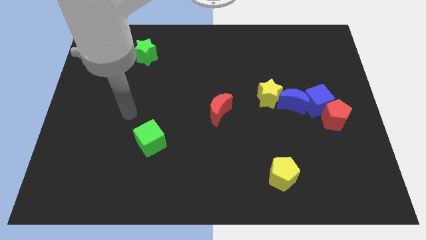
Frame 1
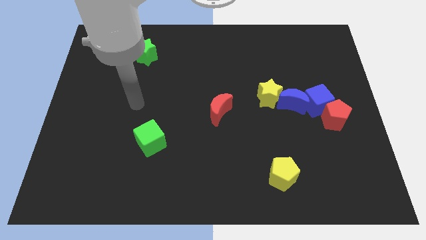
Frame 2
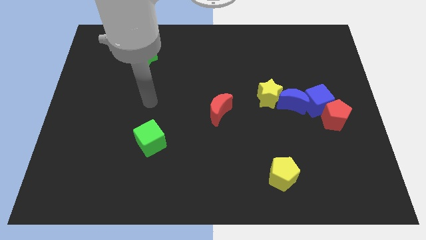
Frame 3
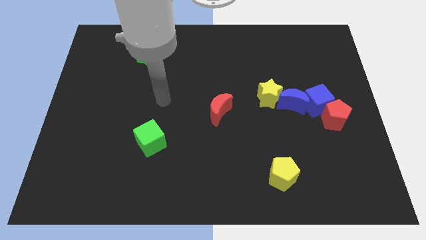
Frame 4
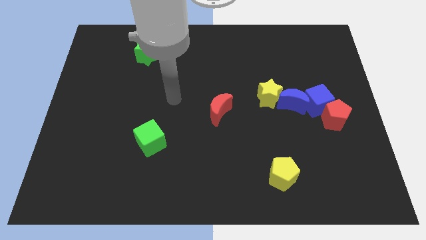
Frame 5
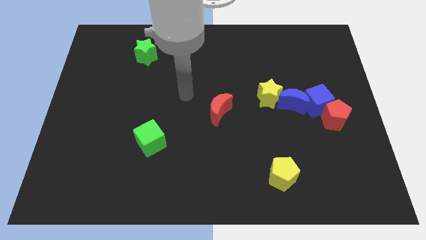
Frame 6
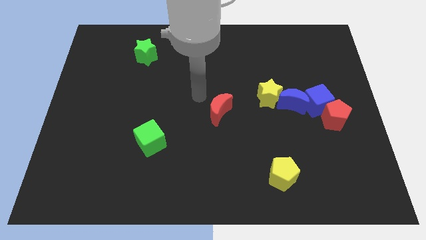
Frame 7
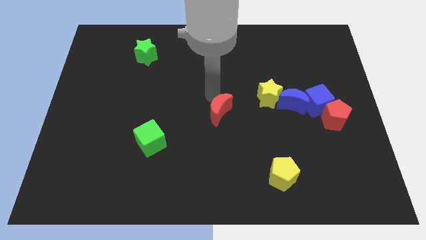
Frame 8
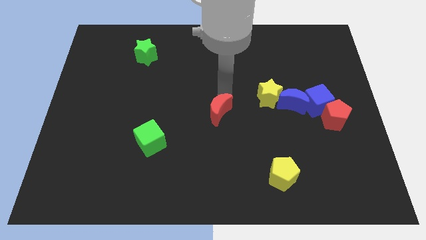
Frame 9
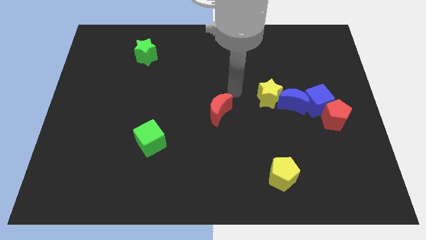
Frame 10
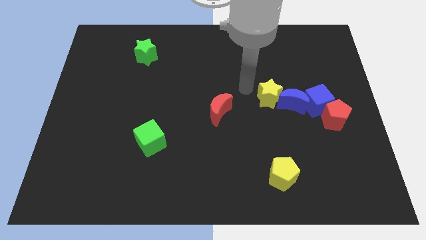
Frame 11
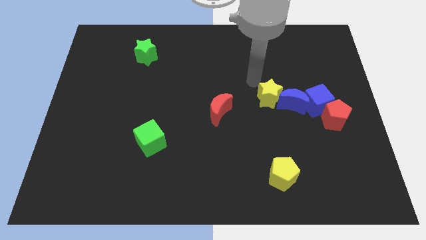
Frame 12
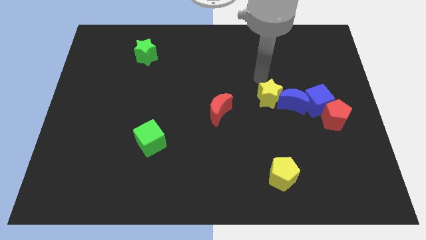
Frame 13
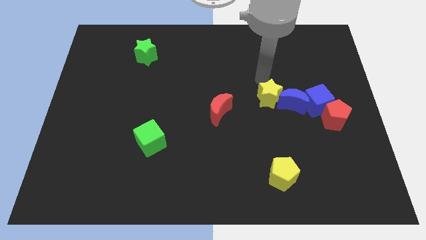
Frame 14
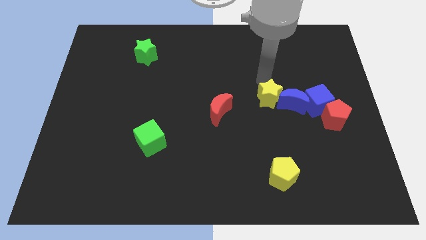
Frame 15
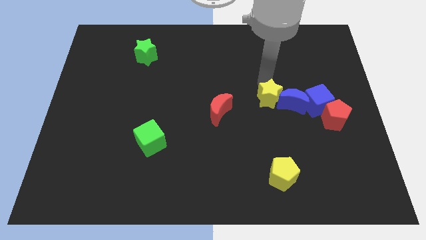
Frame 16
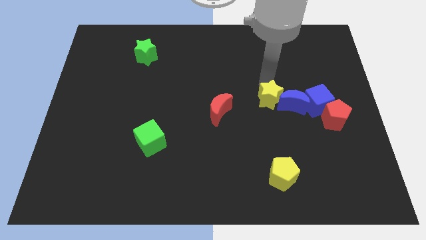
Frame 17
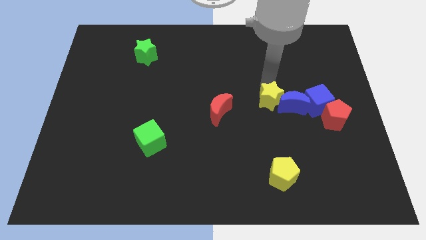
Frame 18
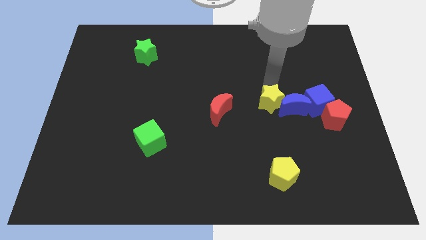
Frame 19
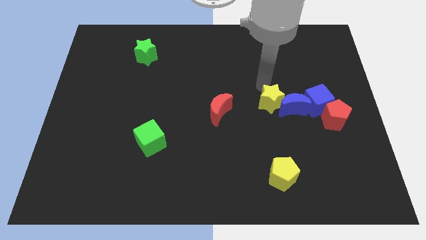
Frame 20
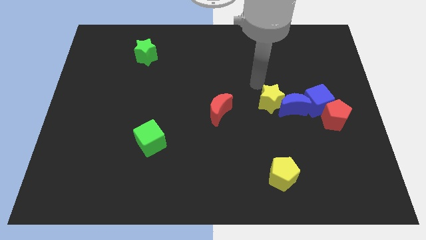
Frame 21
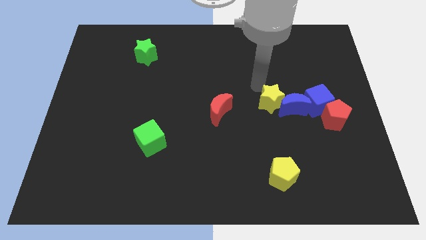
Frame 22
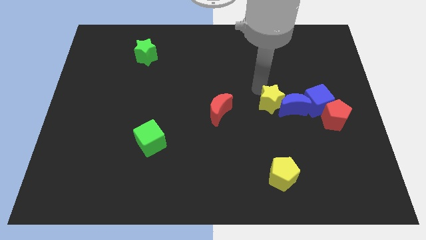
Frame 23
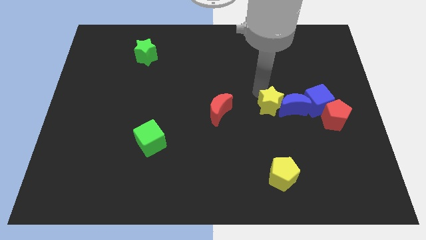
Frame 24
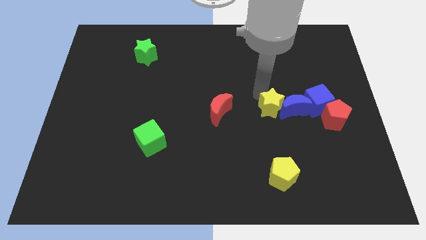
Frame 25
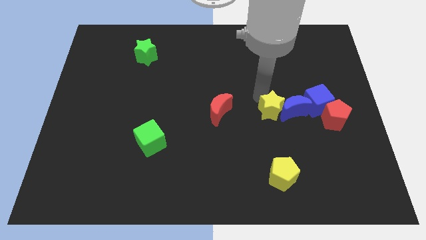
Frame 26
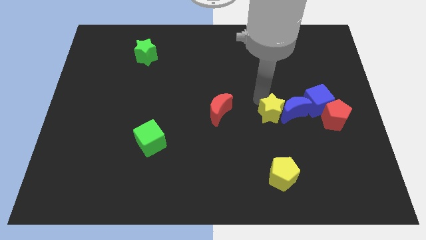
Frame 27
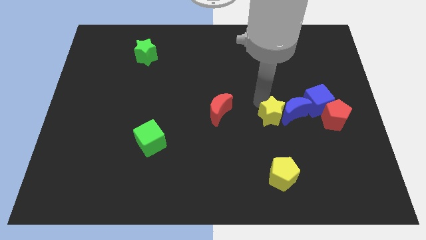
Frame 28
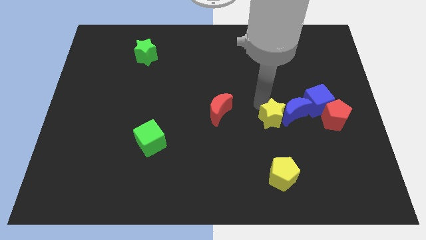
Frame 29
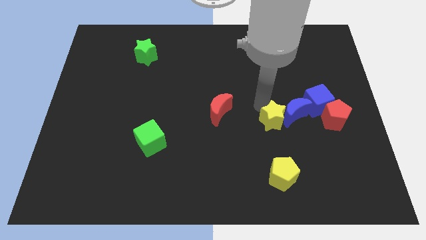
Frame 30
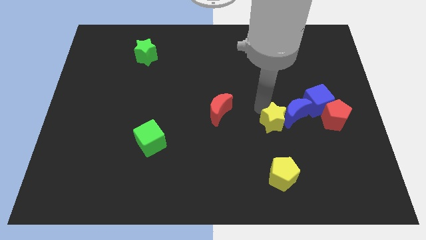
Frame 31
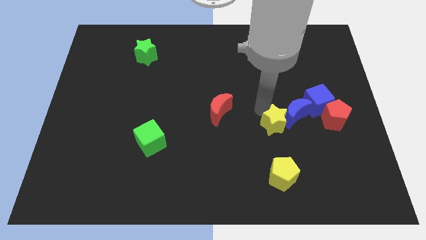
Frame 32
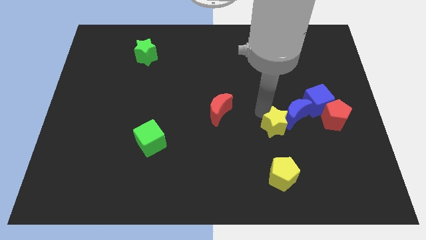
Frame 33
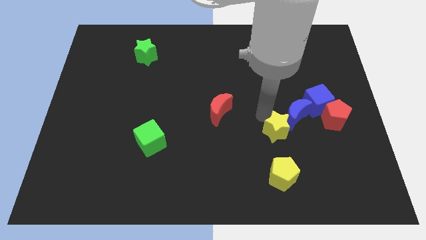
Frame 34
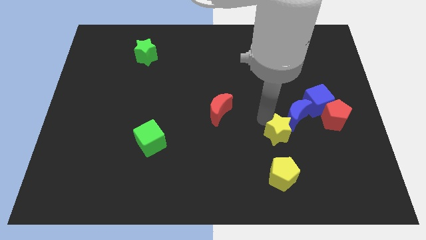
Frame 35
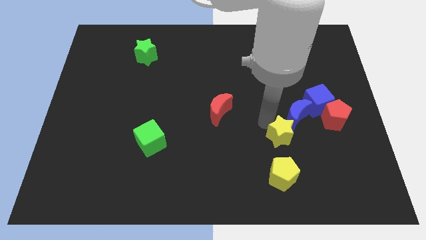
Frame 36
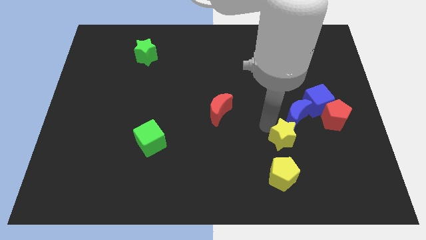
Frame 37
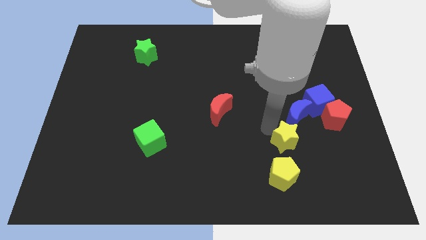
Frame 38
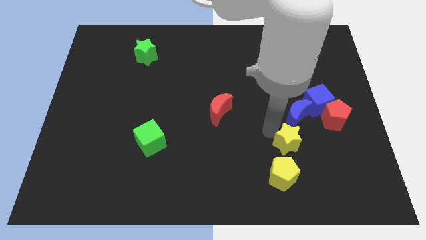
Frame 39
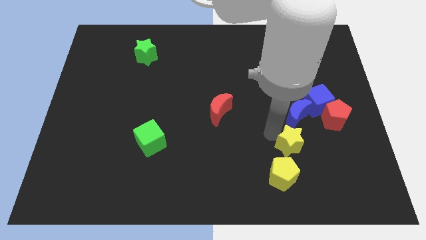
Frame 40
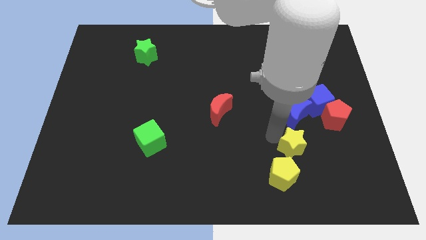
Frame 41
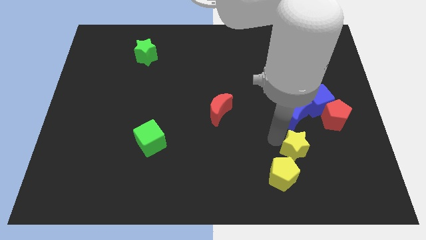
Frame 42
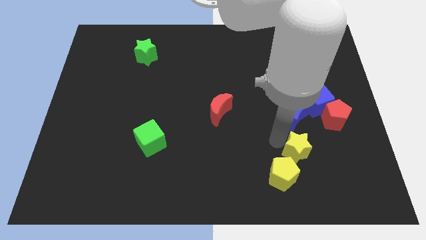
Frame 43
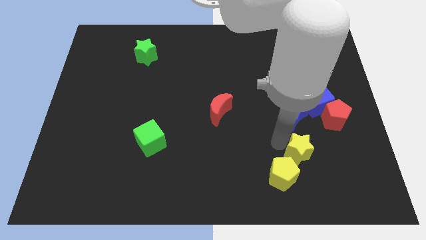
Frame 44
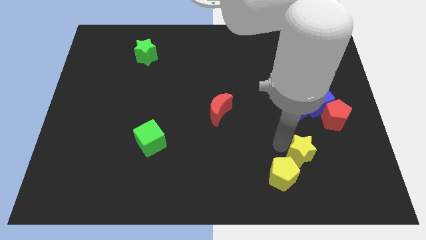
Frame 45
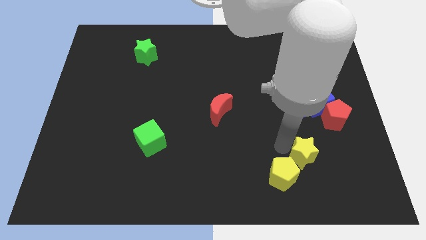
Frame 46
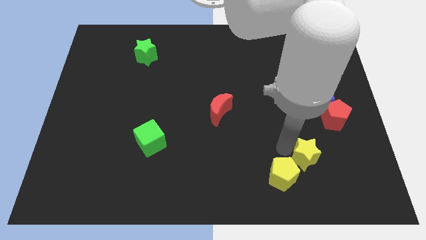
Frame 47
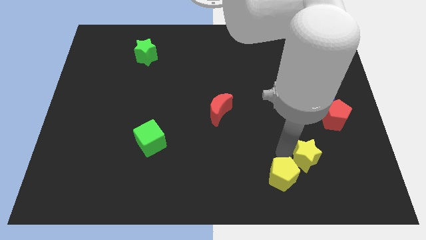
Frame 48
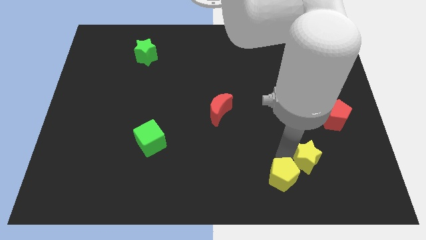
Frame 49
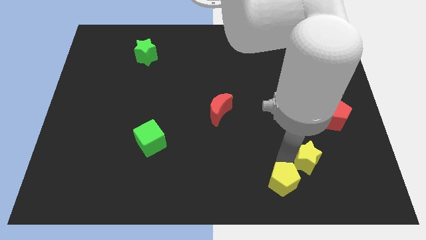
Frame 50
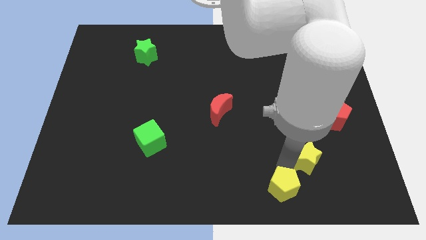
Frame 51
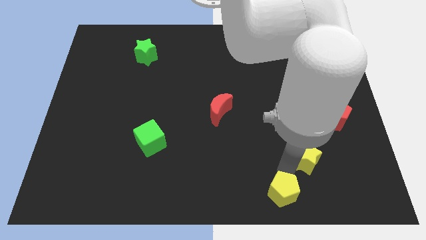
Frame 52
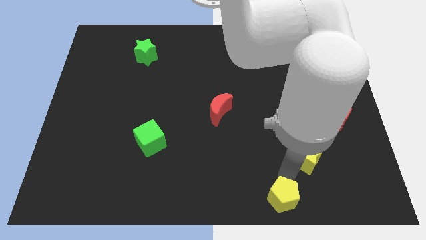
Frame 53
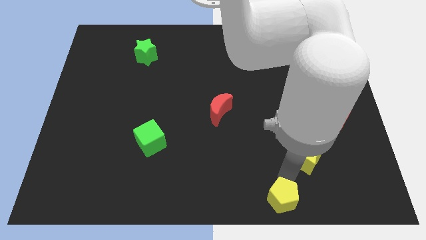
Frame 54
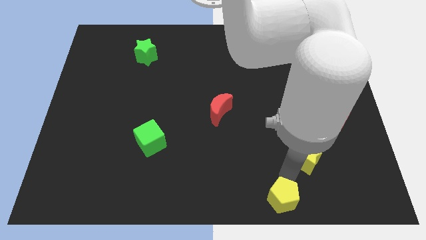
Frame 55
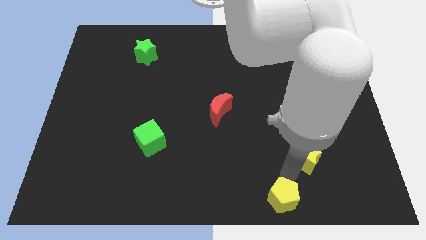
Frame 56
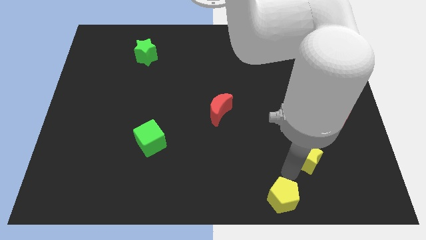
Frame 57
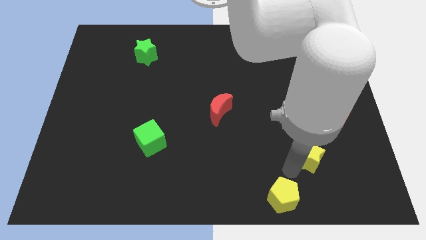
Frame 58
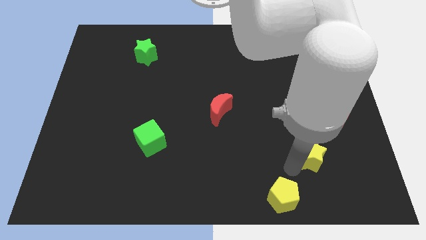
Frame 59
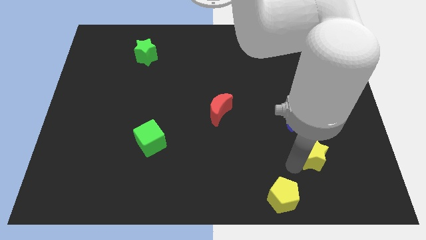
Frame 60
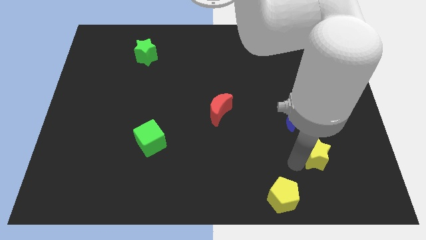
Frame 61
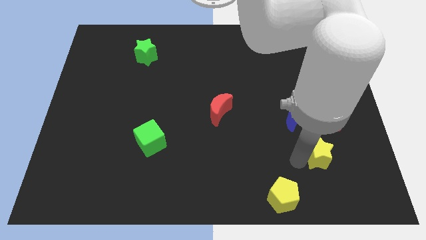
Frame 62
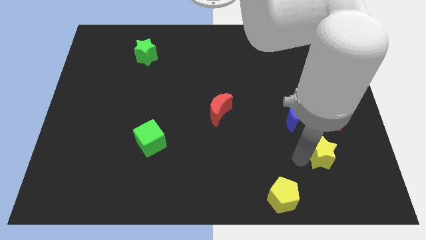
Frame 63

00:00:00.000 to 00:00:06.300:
slide the yellow star to the bottom side of the red pentagon

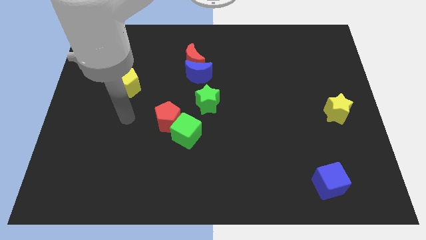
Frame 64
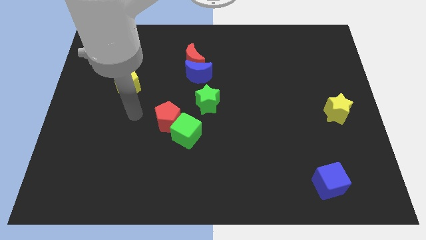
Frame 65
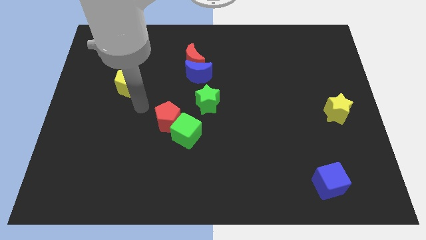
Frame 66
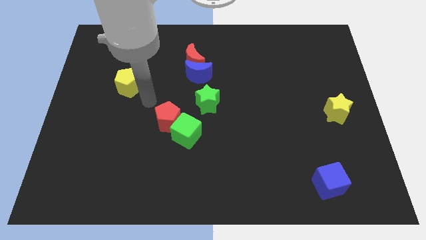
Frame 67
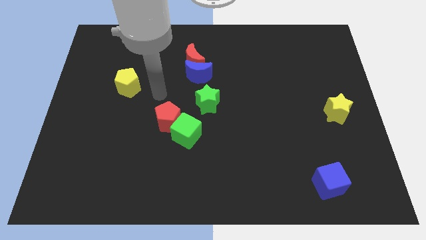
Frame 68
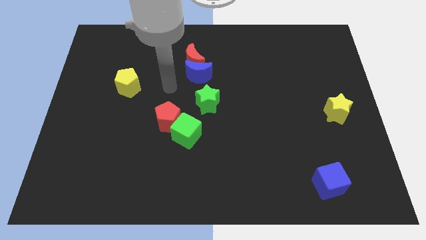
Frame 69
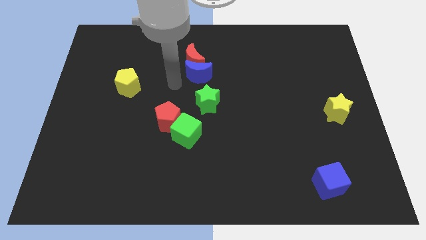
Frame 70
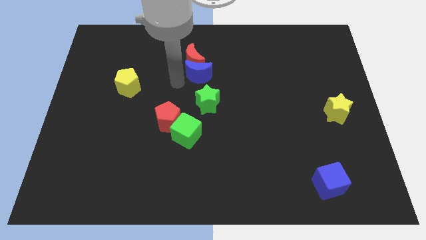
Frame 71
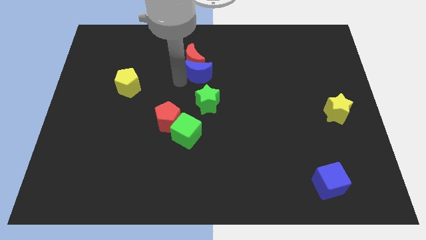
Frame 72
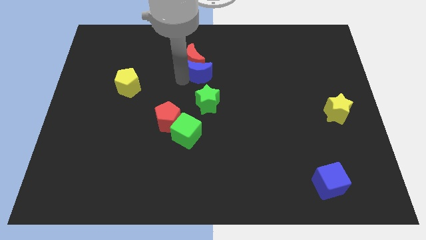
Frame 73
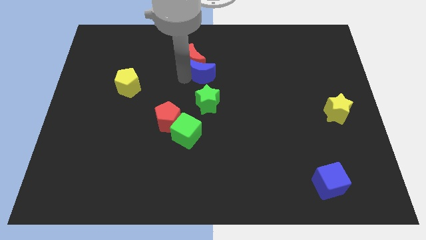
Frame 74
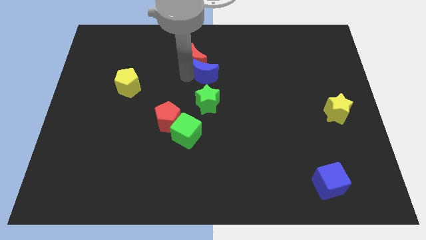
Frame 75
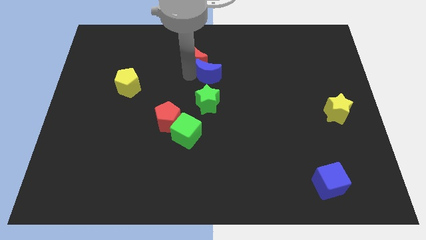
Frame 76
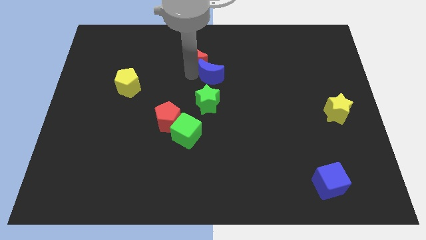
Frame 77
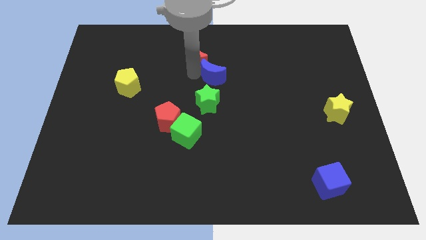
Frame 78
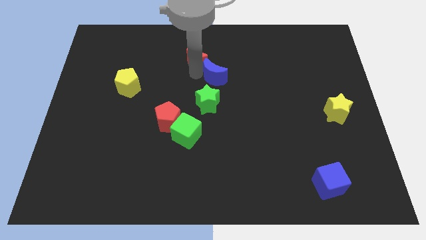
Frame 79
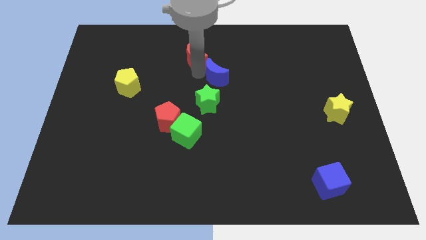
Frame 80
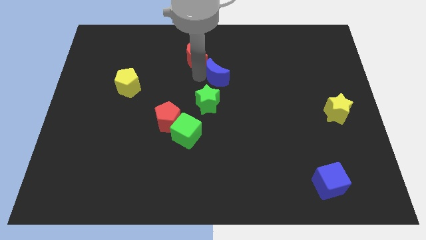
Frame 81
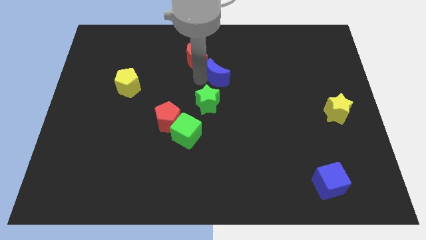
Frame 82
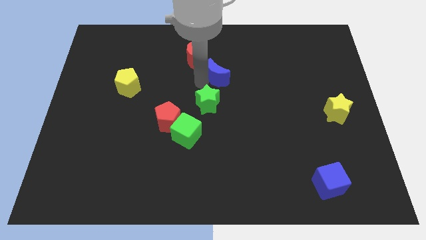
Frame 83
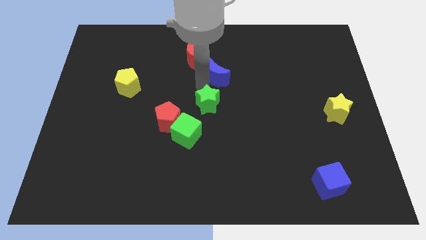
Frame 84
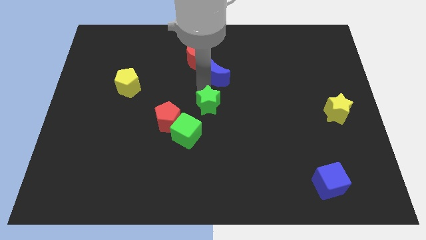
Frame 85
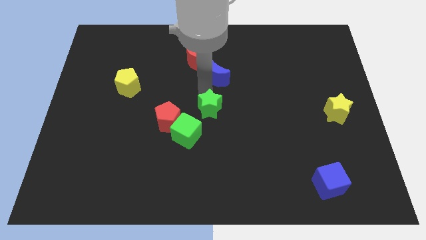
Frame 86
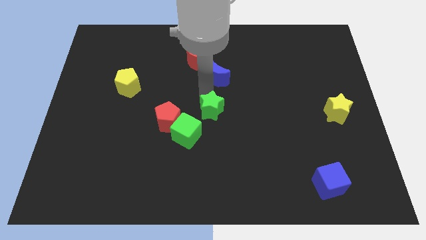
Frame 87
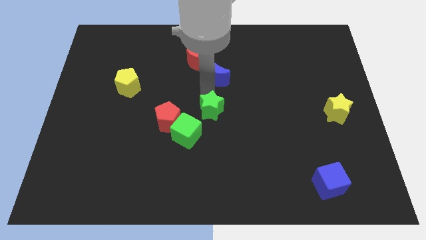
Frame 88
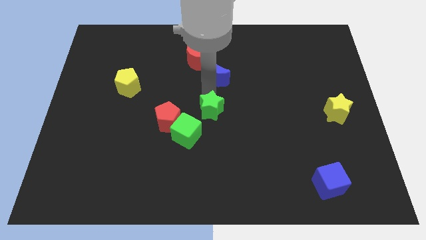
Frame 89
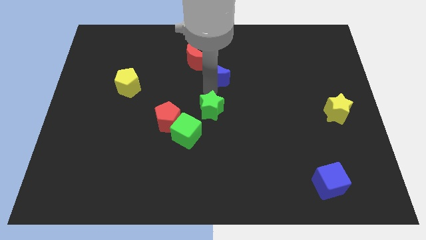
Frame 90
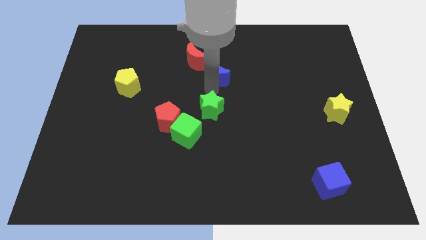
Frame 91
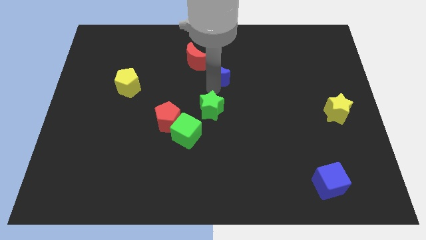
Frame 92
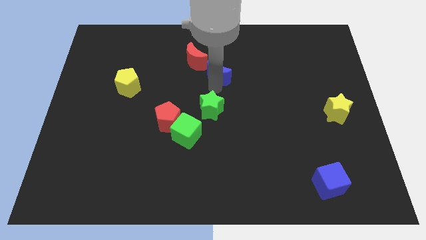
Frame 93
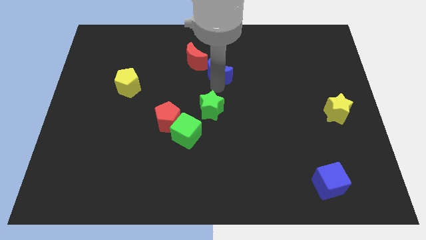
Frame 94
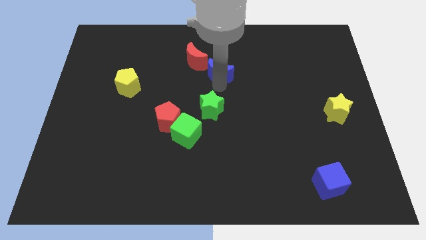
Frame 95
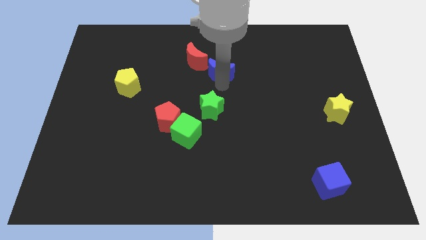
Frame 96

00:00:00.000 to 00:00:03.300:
push the blue moon right of the red moon
